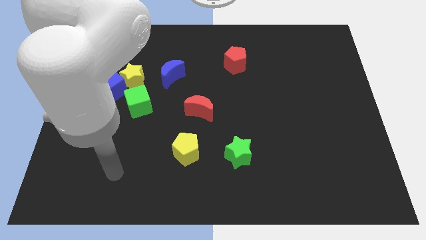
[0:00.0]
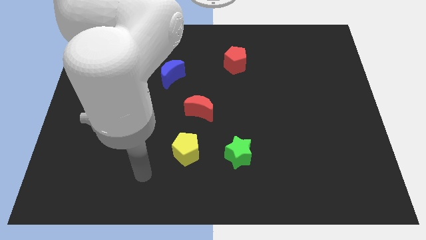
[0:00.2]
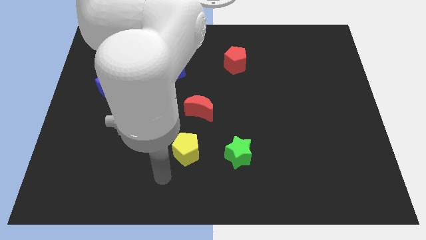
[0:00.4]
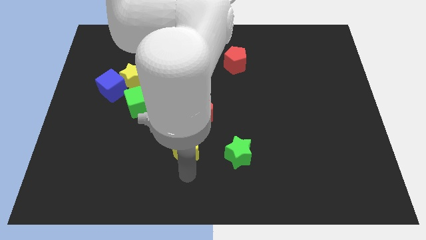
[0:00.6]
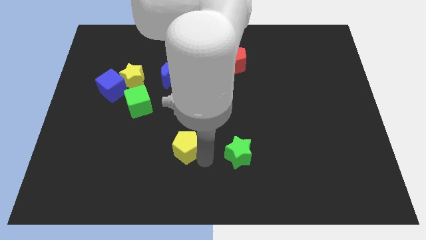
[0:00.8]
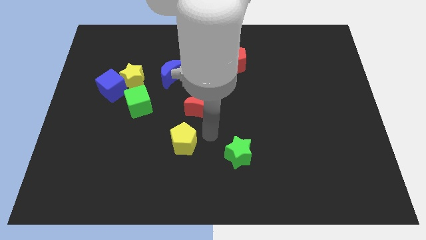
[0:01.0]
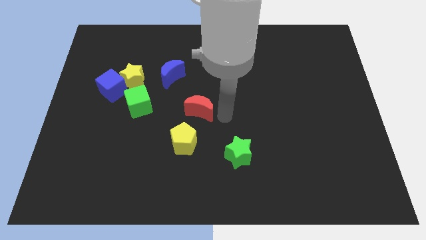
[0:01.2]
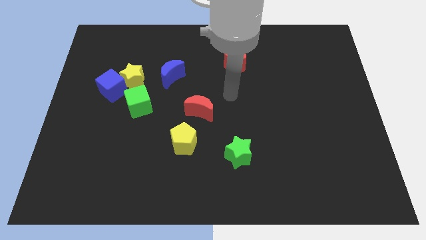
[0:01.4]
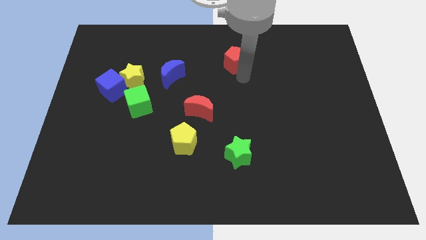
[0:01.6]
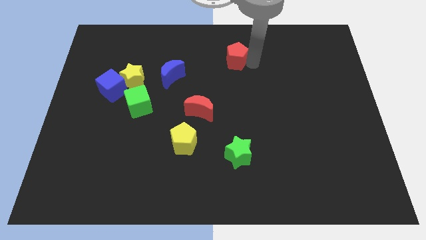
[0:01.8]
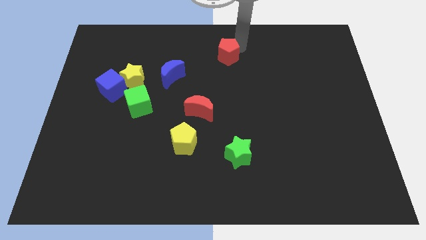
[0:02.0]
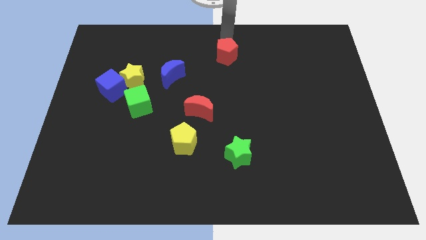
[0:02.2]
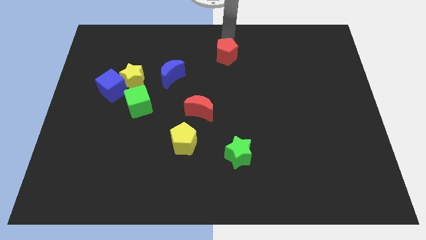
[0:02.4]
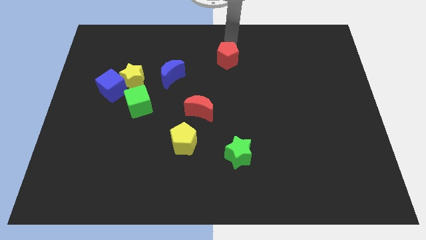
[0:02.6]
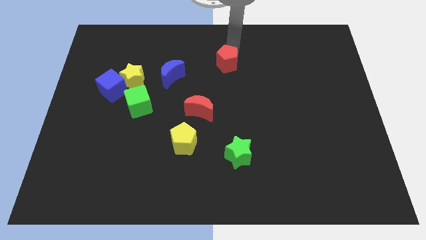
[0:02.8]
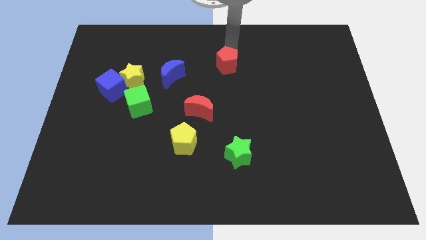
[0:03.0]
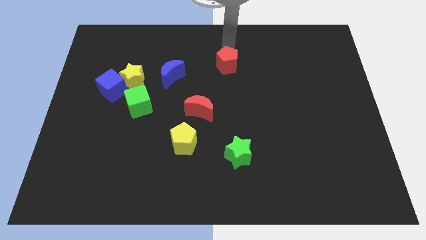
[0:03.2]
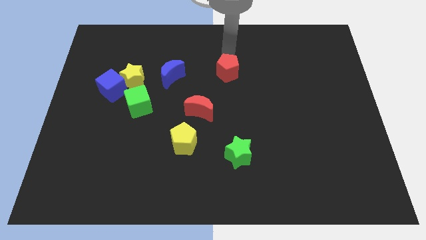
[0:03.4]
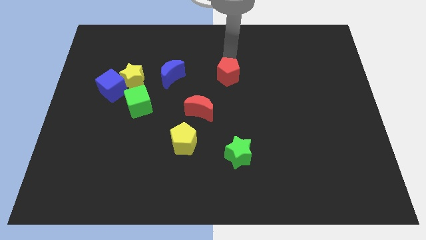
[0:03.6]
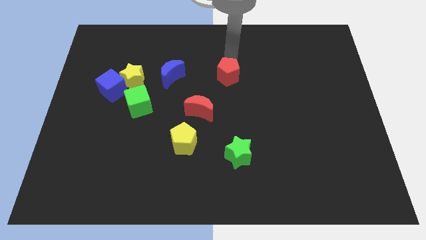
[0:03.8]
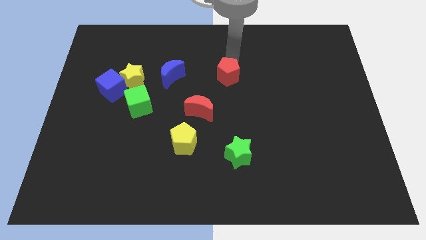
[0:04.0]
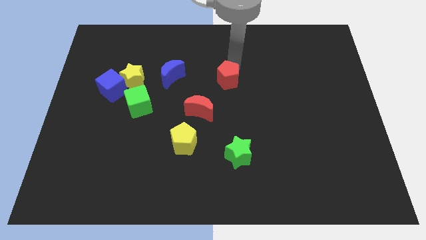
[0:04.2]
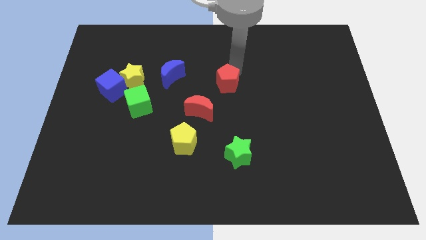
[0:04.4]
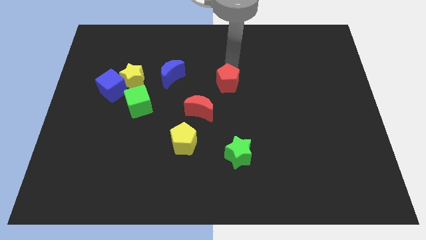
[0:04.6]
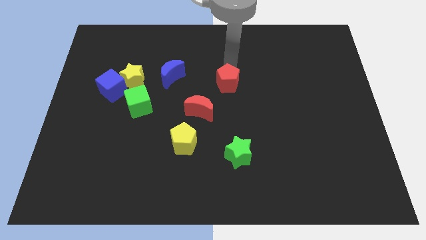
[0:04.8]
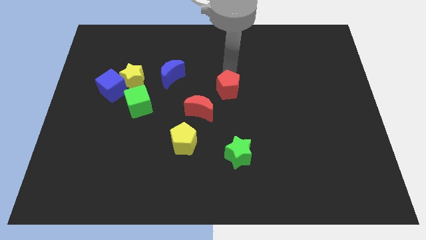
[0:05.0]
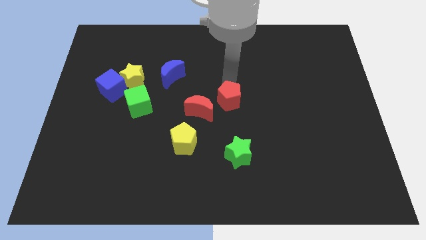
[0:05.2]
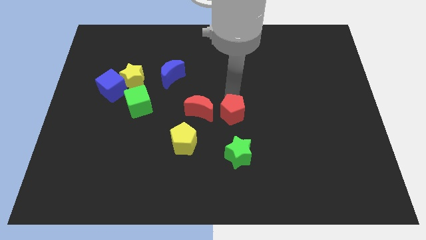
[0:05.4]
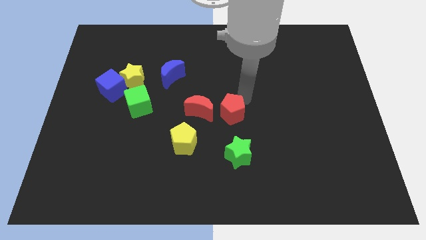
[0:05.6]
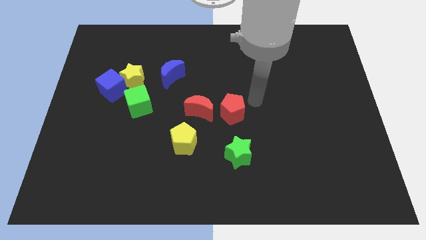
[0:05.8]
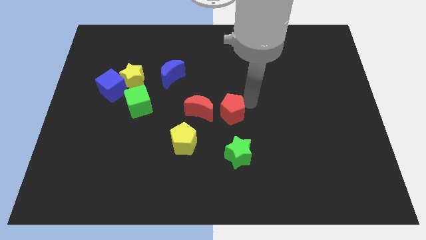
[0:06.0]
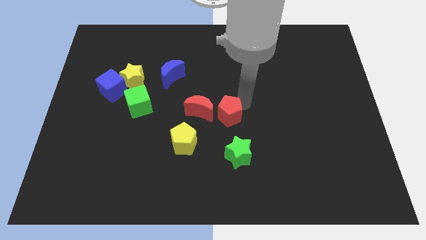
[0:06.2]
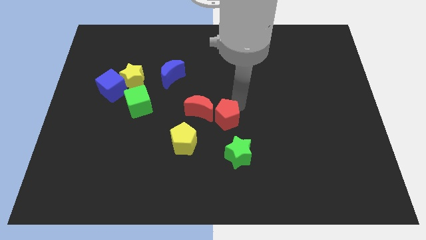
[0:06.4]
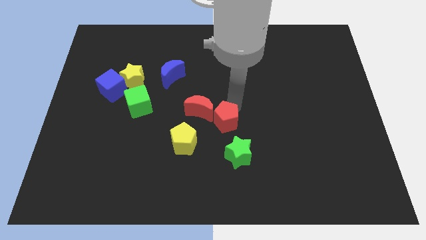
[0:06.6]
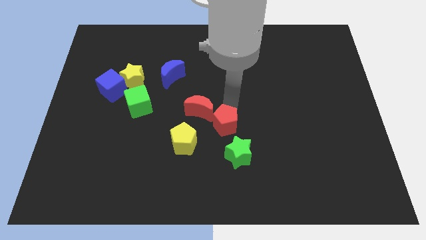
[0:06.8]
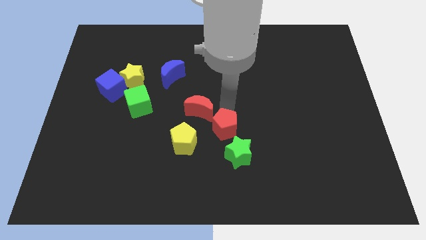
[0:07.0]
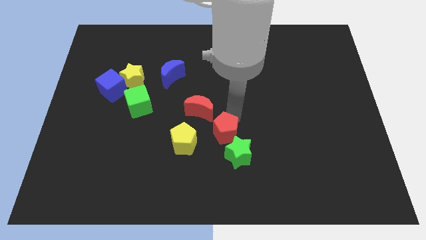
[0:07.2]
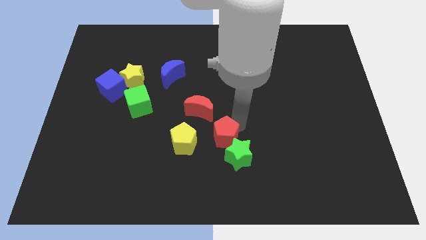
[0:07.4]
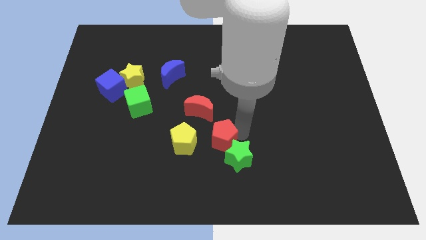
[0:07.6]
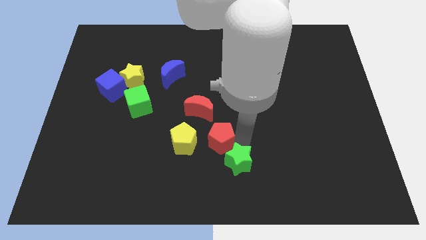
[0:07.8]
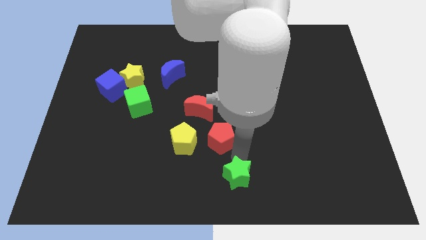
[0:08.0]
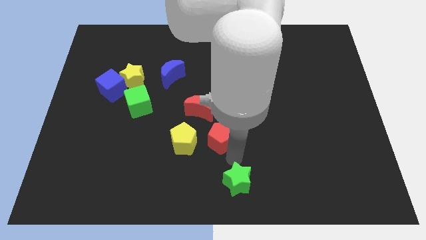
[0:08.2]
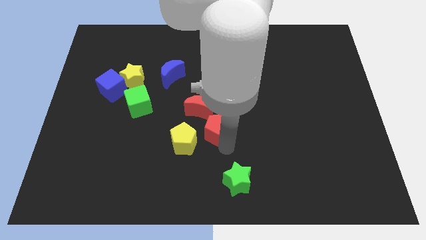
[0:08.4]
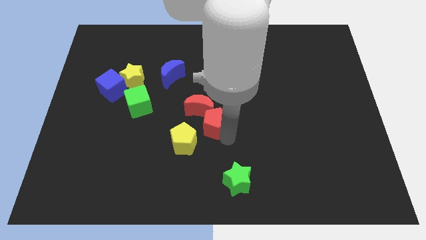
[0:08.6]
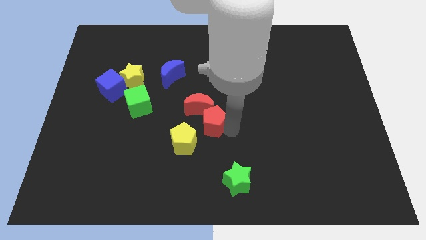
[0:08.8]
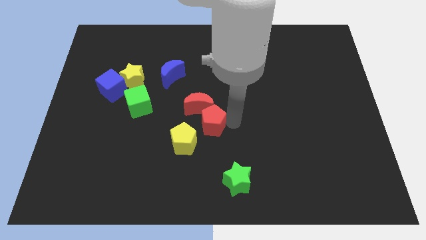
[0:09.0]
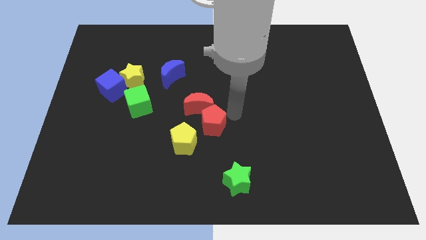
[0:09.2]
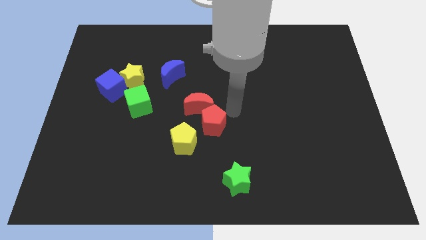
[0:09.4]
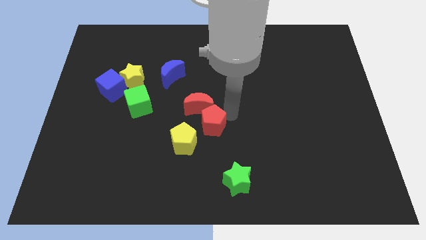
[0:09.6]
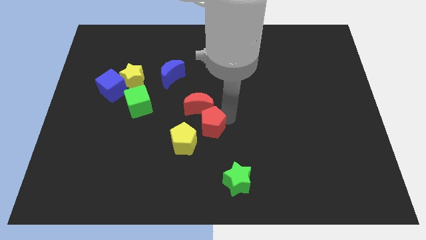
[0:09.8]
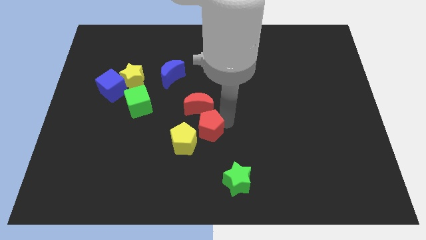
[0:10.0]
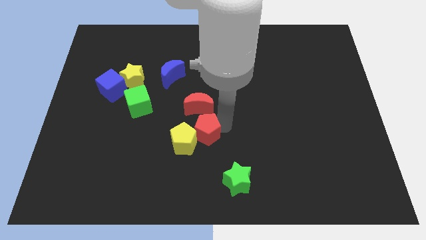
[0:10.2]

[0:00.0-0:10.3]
slide the red pentagon close to the yellow pentagon

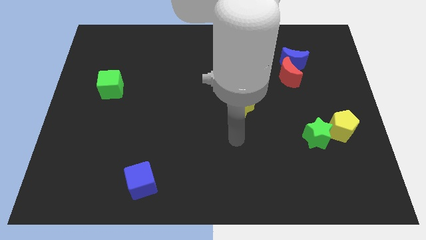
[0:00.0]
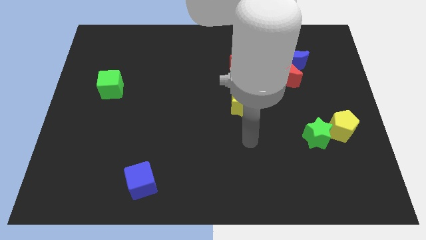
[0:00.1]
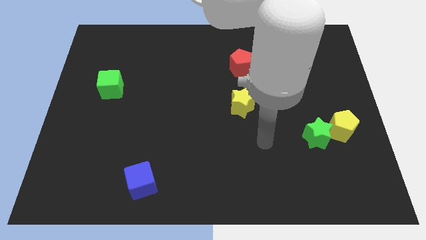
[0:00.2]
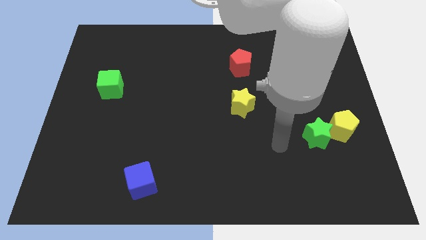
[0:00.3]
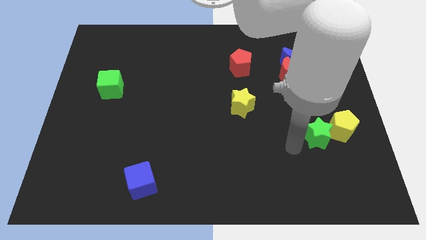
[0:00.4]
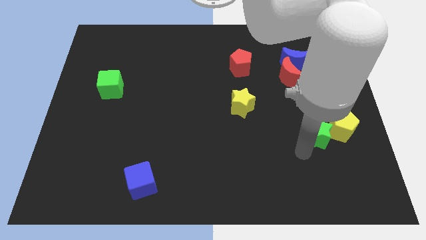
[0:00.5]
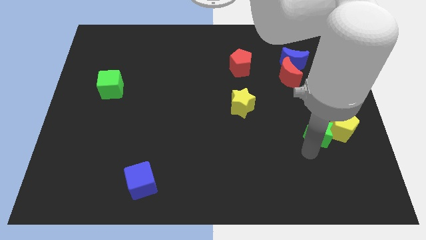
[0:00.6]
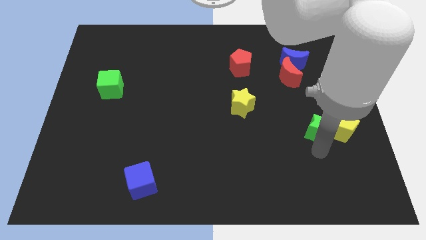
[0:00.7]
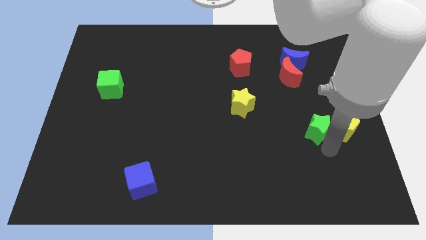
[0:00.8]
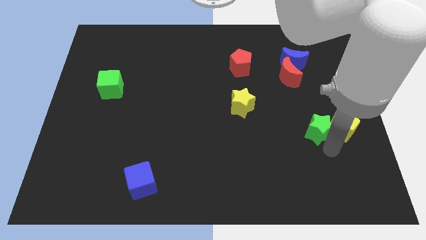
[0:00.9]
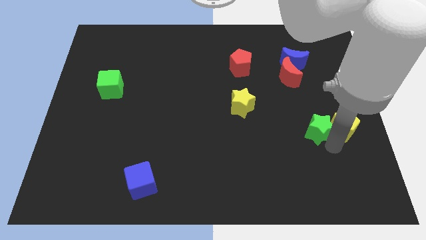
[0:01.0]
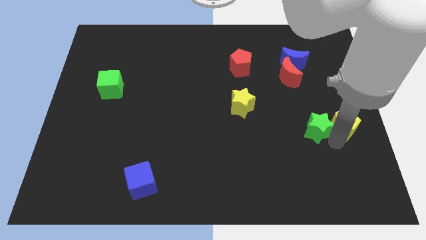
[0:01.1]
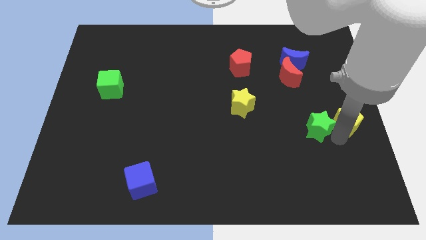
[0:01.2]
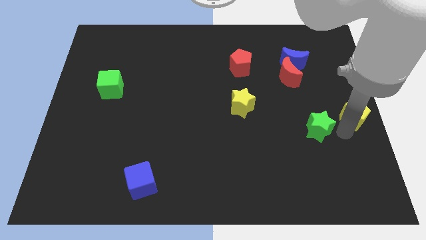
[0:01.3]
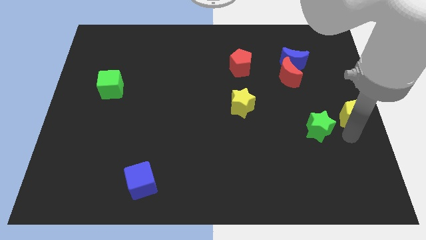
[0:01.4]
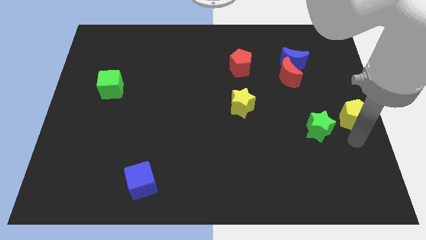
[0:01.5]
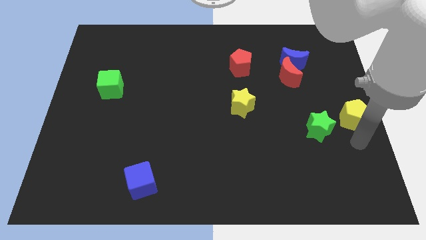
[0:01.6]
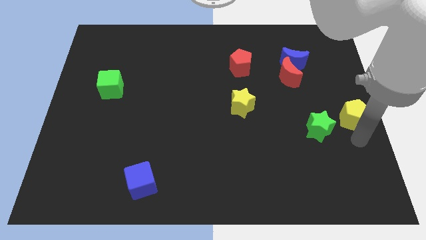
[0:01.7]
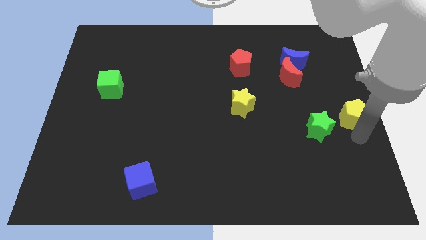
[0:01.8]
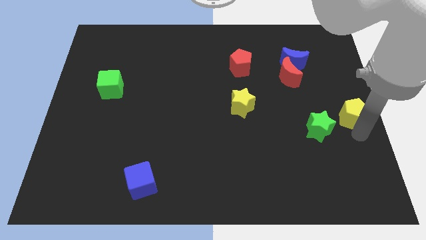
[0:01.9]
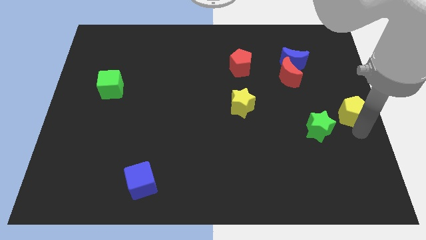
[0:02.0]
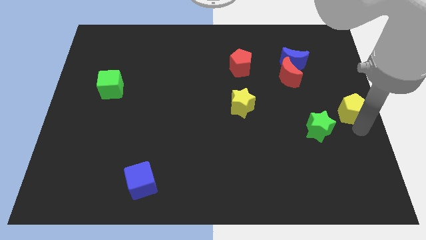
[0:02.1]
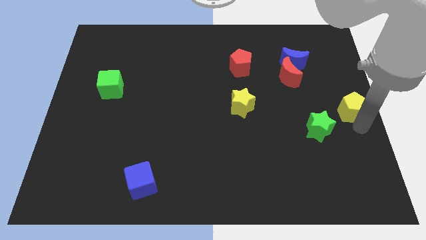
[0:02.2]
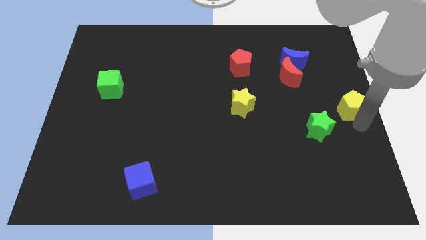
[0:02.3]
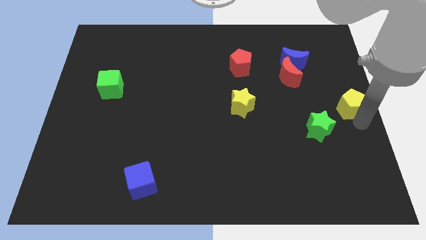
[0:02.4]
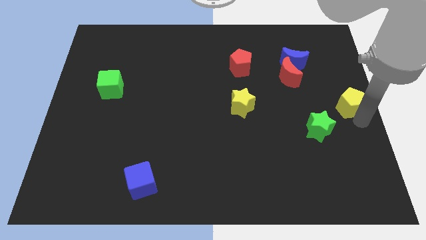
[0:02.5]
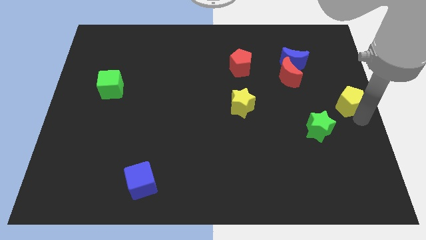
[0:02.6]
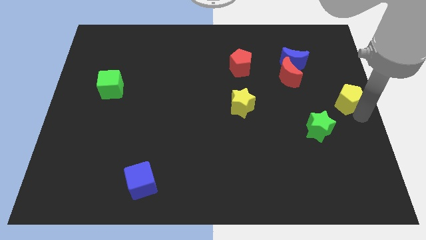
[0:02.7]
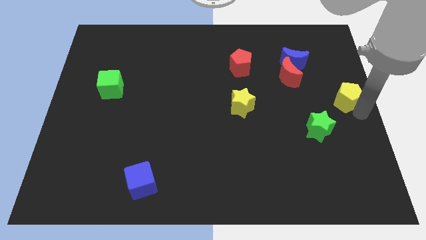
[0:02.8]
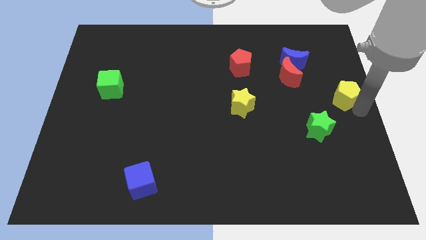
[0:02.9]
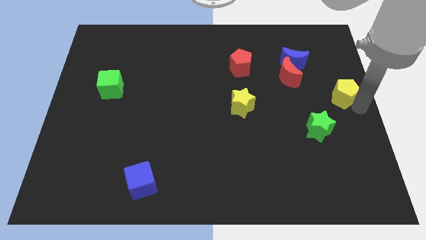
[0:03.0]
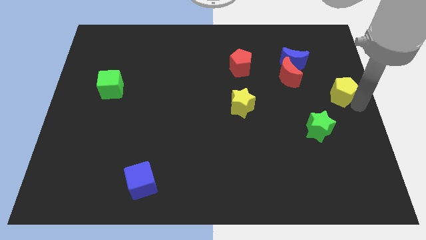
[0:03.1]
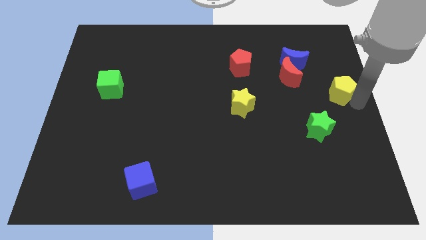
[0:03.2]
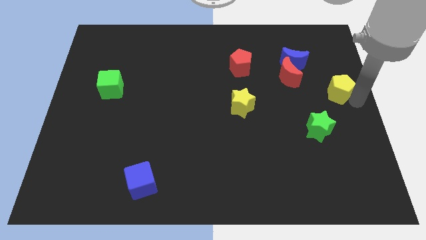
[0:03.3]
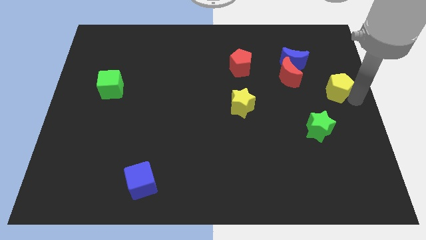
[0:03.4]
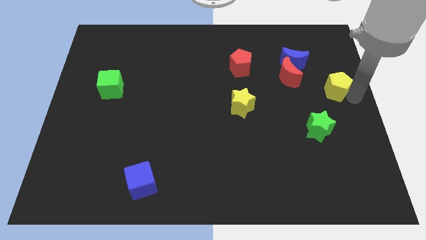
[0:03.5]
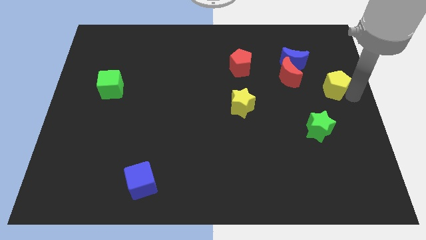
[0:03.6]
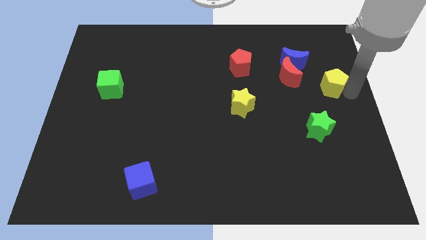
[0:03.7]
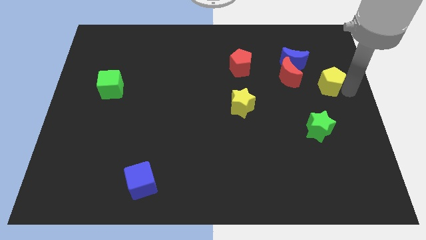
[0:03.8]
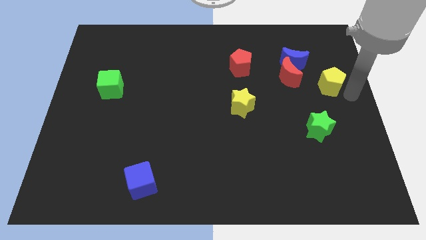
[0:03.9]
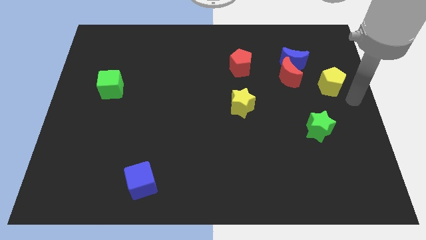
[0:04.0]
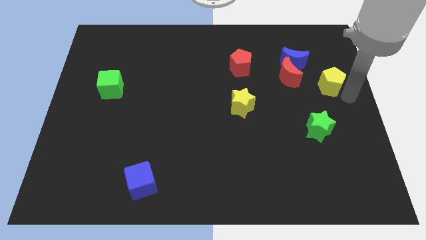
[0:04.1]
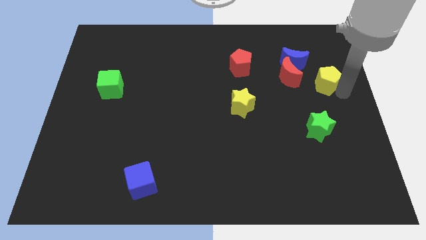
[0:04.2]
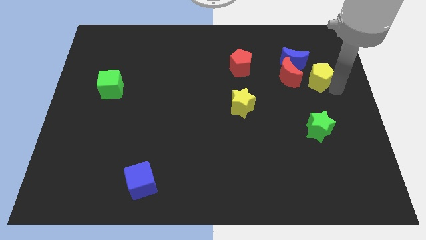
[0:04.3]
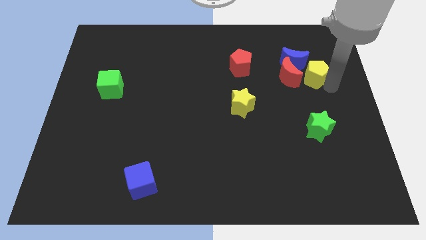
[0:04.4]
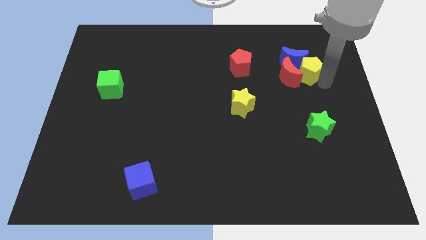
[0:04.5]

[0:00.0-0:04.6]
put the yellow pentagon close to the blue moon
